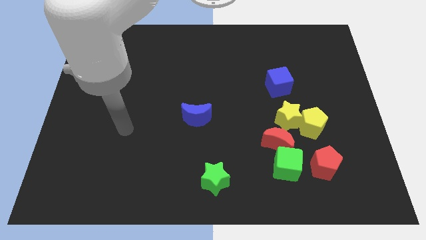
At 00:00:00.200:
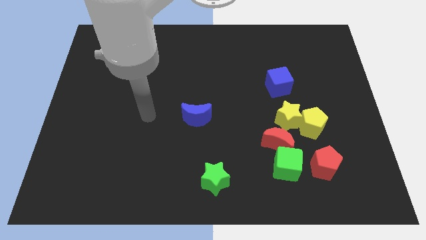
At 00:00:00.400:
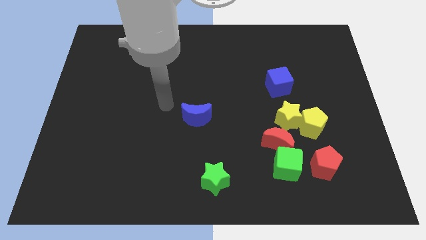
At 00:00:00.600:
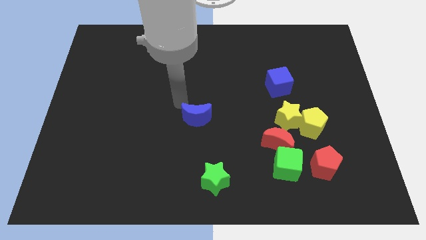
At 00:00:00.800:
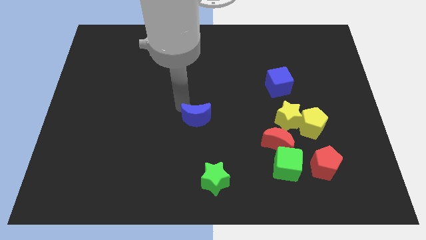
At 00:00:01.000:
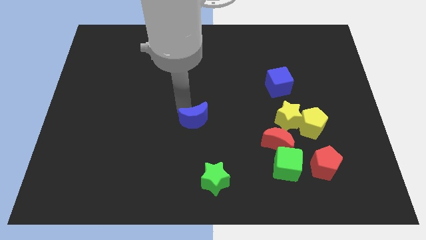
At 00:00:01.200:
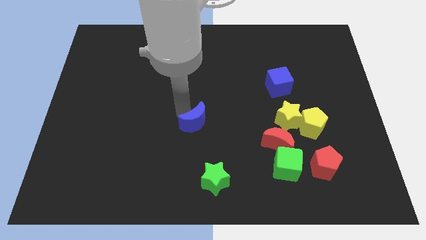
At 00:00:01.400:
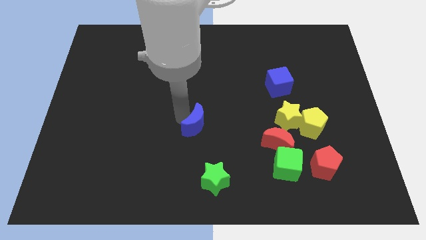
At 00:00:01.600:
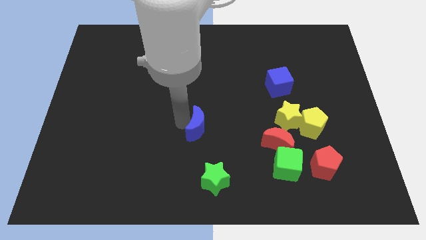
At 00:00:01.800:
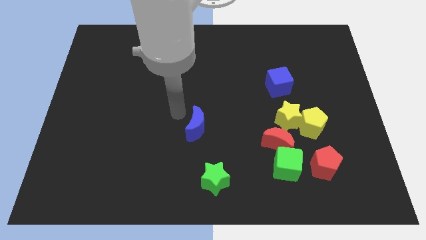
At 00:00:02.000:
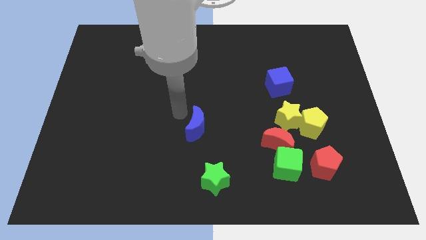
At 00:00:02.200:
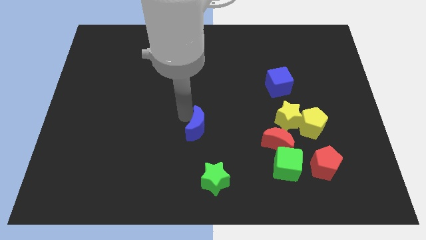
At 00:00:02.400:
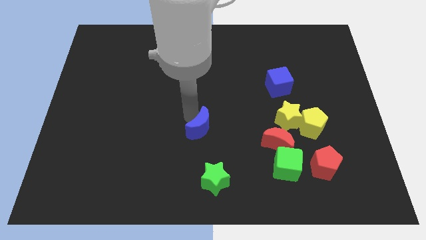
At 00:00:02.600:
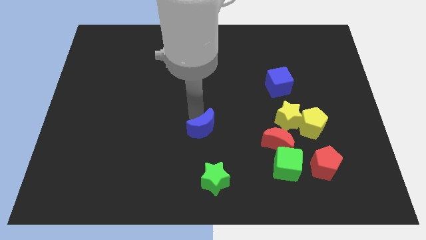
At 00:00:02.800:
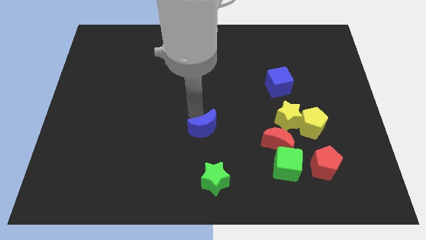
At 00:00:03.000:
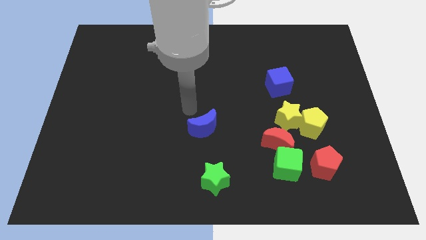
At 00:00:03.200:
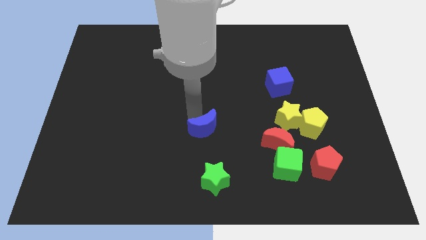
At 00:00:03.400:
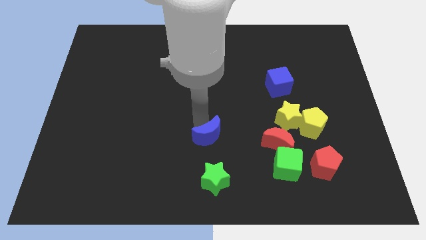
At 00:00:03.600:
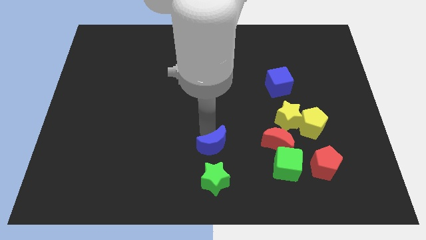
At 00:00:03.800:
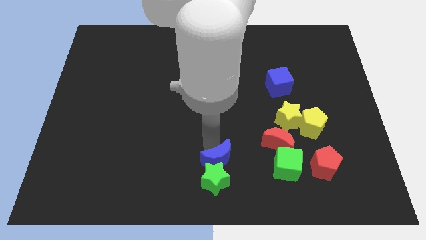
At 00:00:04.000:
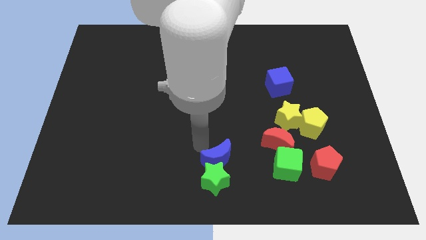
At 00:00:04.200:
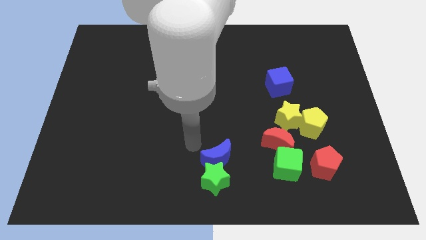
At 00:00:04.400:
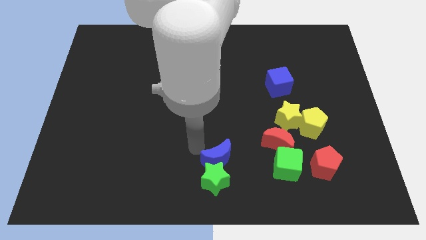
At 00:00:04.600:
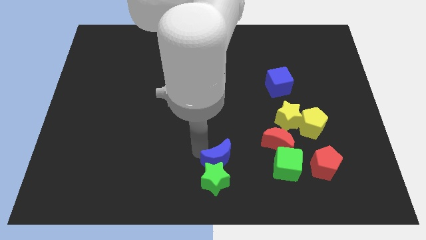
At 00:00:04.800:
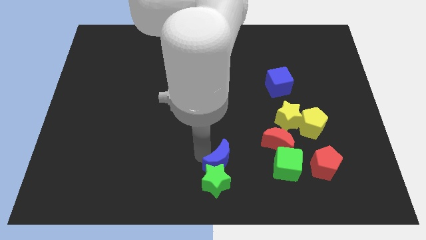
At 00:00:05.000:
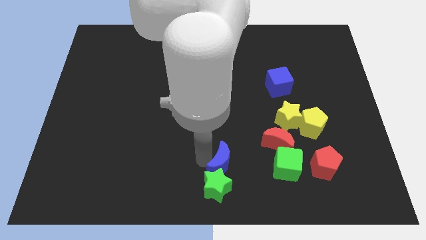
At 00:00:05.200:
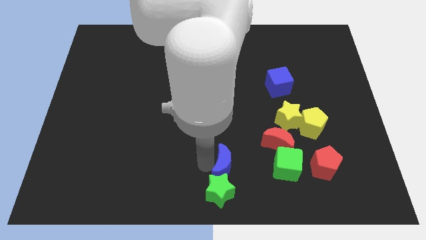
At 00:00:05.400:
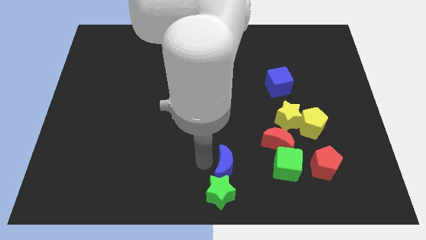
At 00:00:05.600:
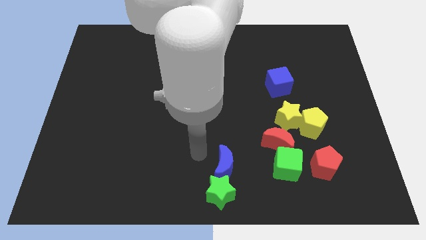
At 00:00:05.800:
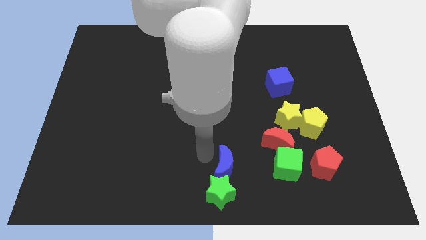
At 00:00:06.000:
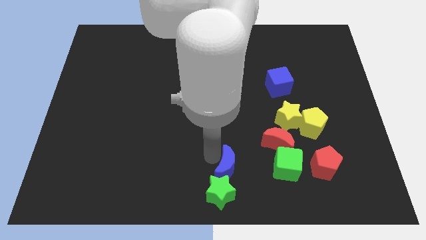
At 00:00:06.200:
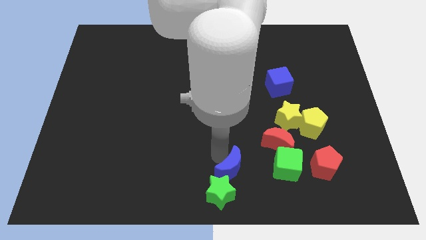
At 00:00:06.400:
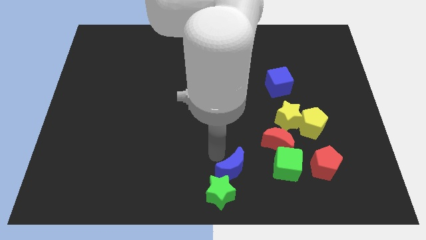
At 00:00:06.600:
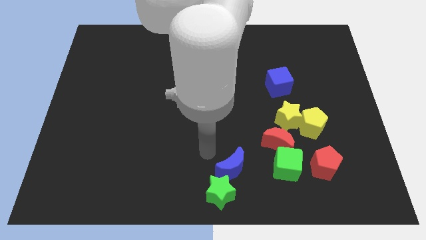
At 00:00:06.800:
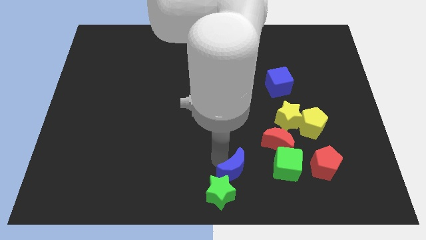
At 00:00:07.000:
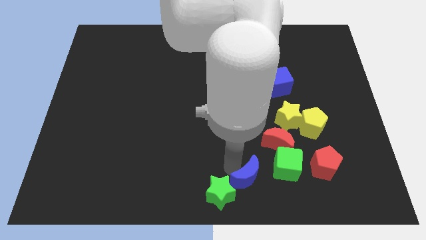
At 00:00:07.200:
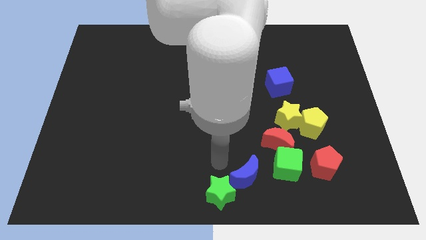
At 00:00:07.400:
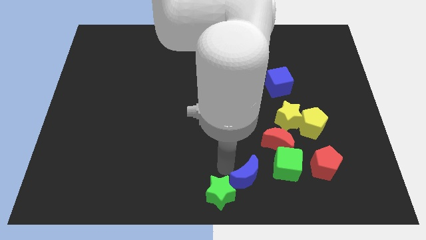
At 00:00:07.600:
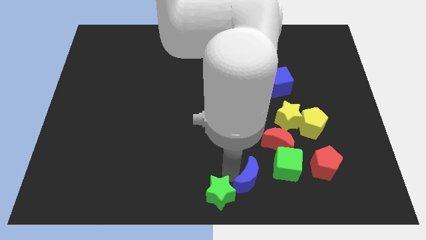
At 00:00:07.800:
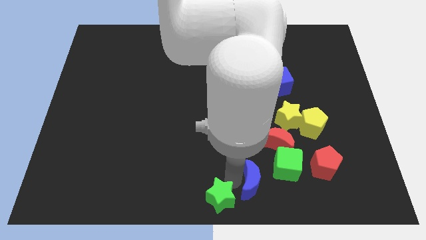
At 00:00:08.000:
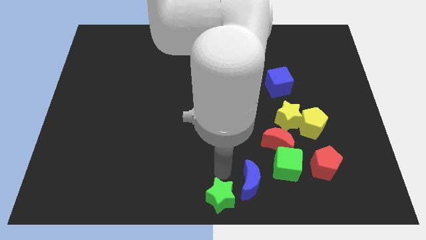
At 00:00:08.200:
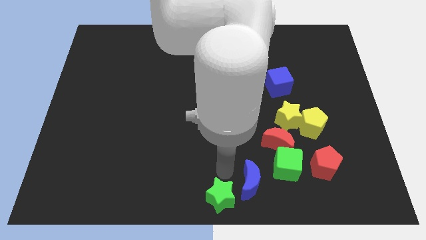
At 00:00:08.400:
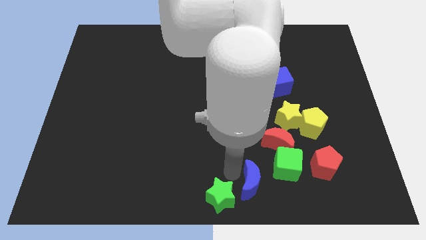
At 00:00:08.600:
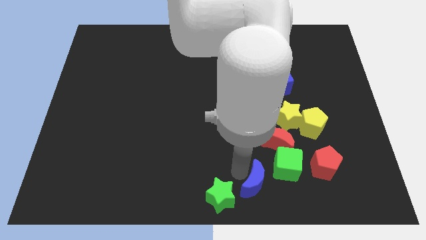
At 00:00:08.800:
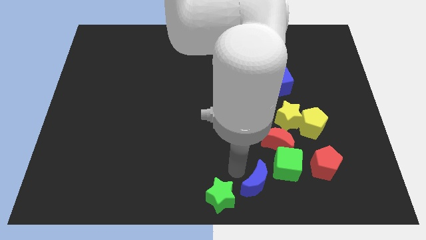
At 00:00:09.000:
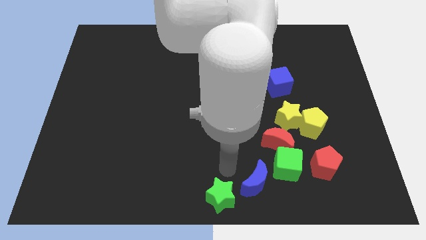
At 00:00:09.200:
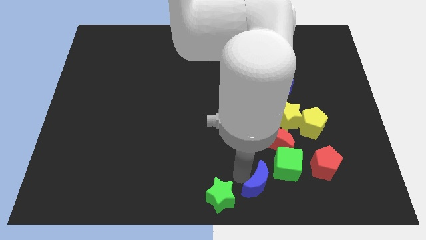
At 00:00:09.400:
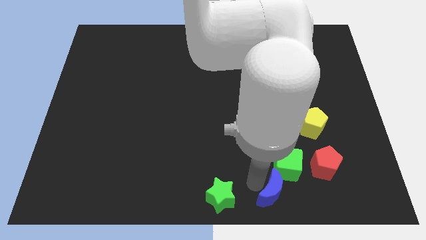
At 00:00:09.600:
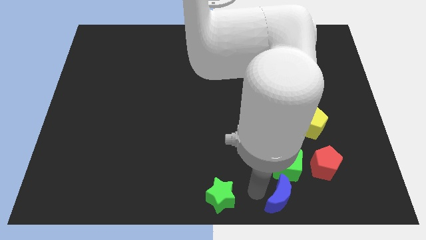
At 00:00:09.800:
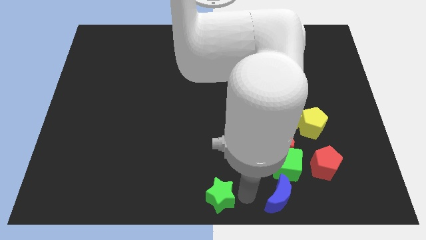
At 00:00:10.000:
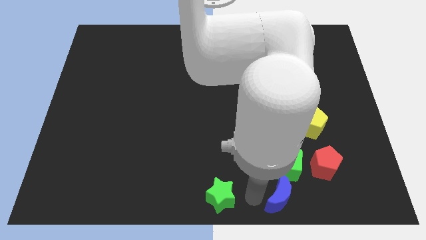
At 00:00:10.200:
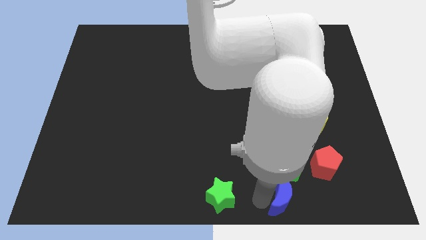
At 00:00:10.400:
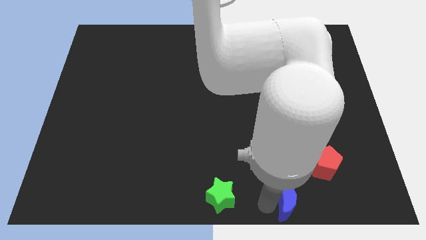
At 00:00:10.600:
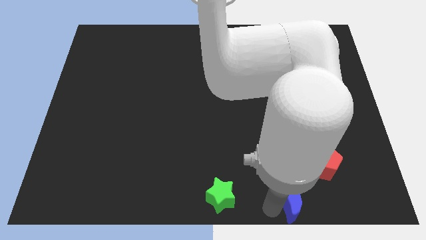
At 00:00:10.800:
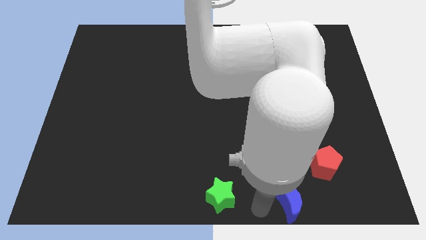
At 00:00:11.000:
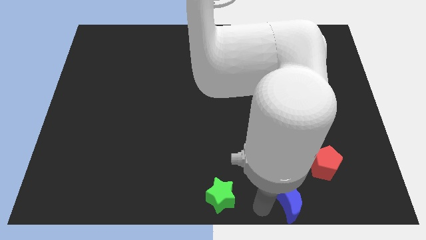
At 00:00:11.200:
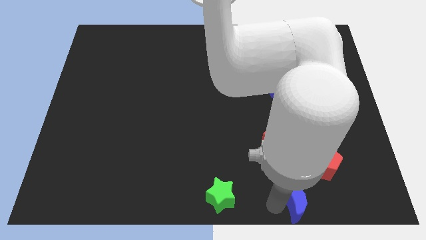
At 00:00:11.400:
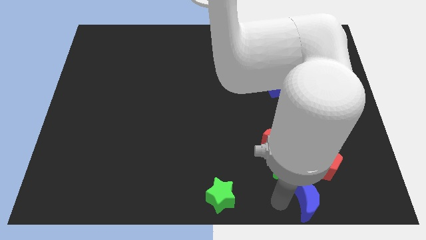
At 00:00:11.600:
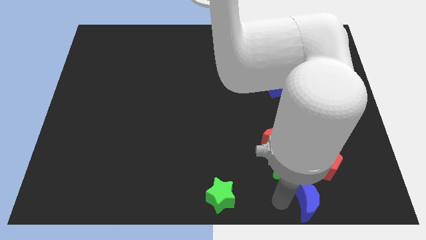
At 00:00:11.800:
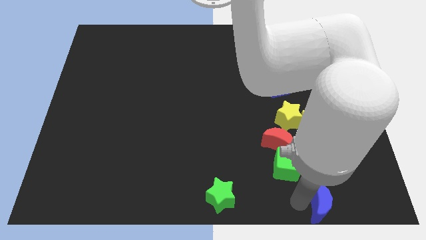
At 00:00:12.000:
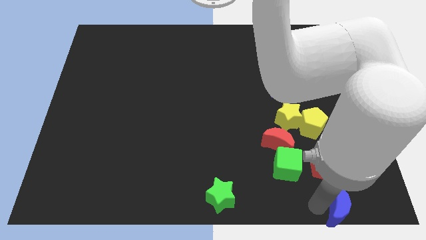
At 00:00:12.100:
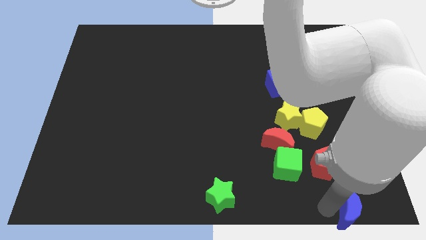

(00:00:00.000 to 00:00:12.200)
slide the blue moon to the bottom right
